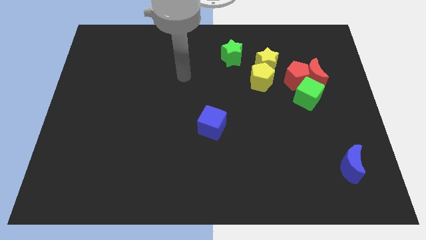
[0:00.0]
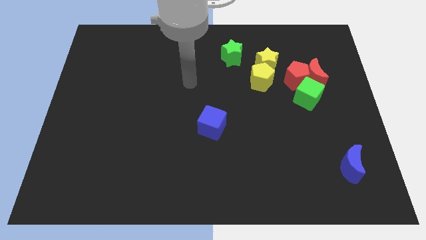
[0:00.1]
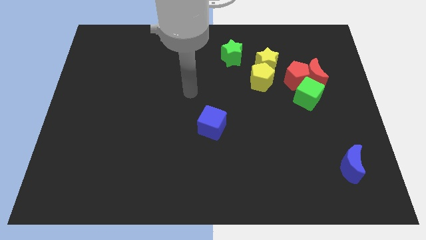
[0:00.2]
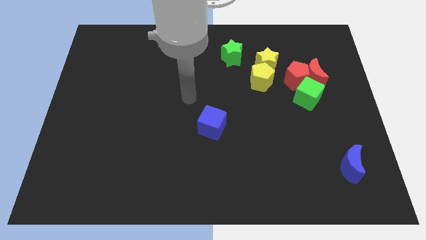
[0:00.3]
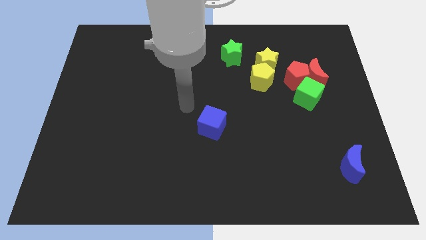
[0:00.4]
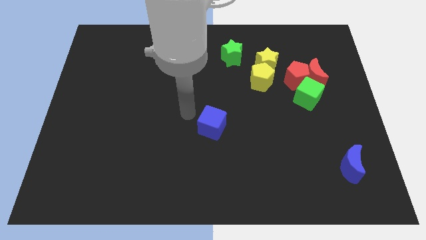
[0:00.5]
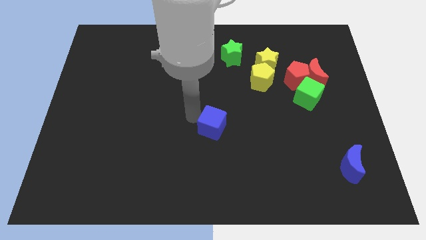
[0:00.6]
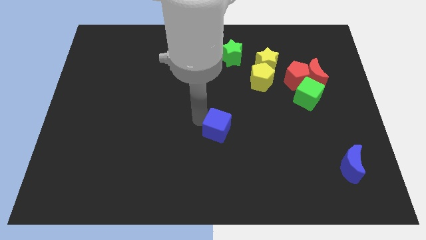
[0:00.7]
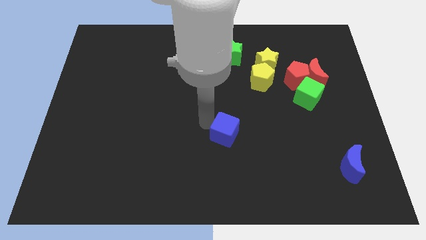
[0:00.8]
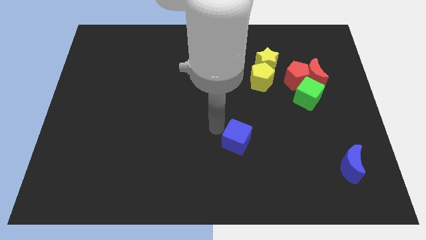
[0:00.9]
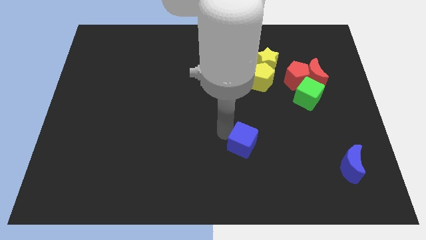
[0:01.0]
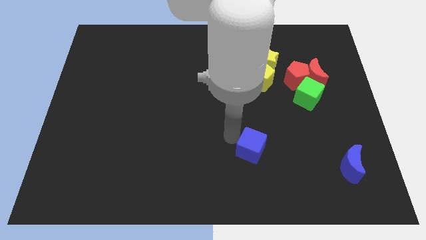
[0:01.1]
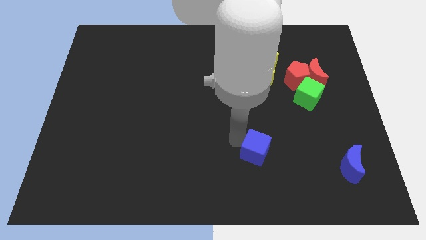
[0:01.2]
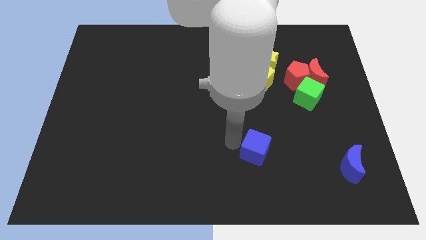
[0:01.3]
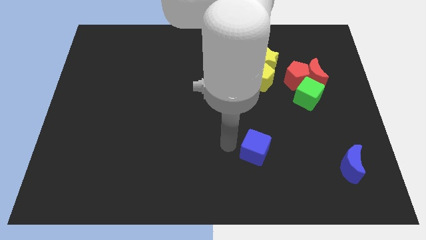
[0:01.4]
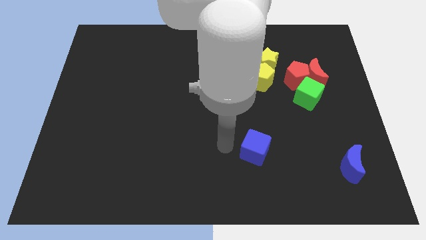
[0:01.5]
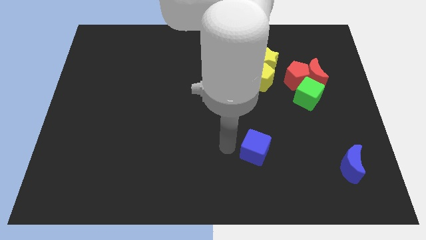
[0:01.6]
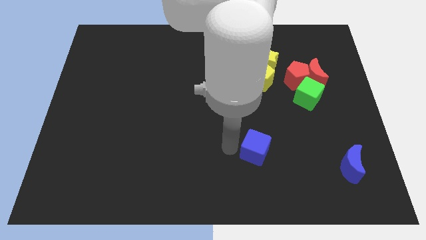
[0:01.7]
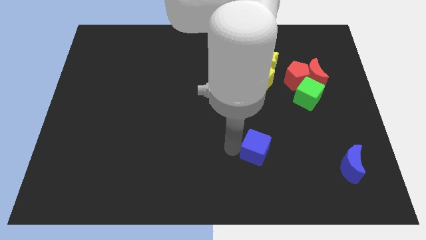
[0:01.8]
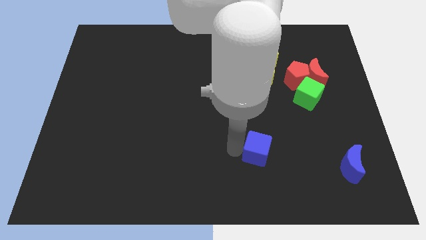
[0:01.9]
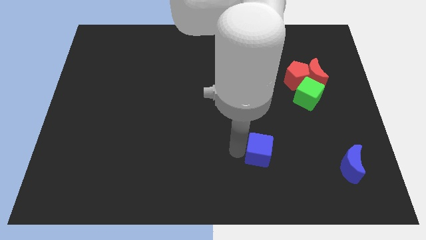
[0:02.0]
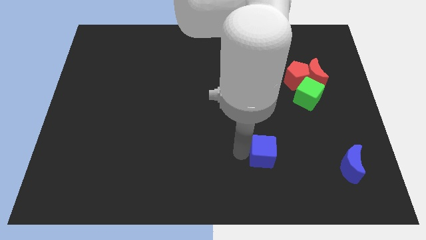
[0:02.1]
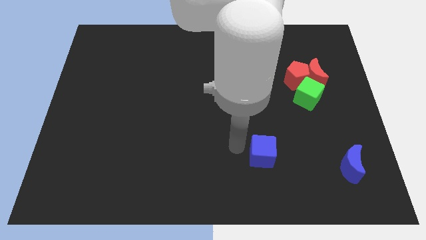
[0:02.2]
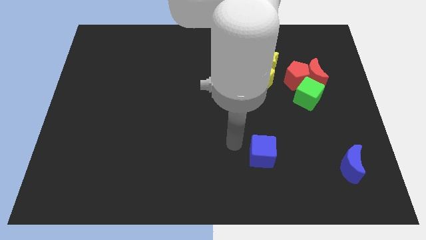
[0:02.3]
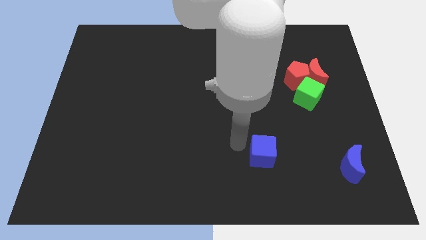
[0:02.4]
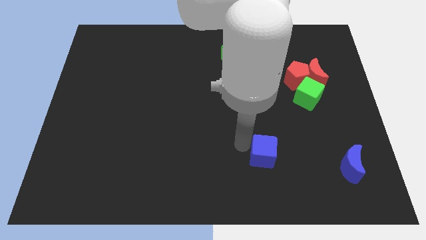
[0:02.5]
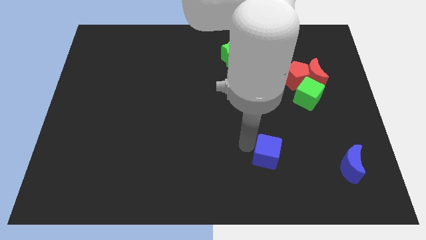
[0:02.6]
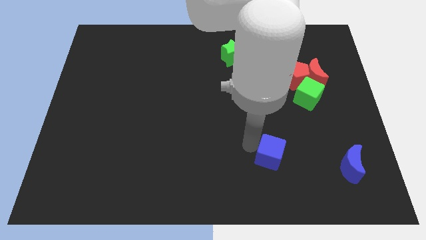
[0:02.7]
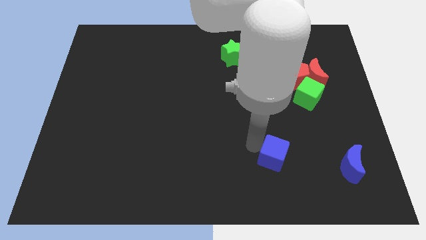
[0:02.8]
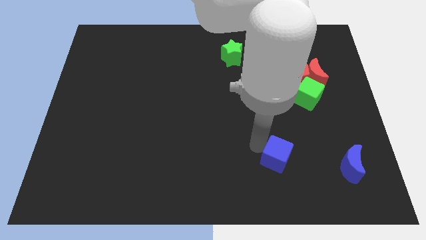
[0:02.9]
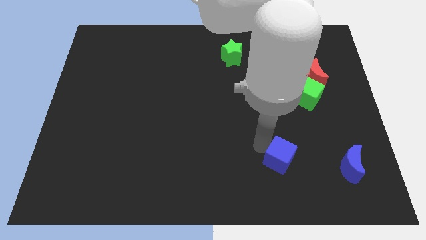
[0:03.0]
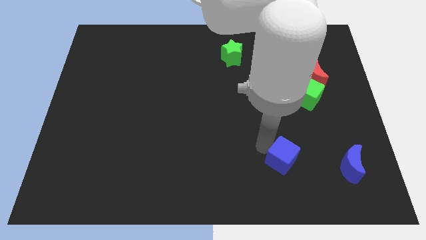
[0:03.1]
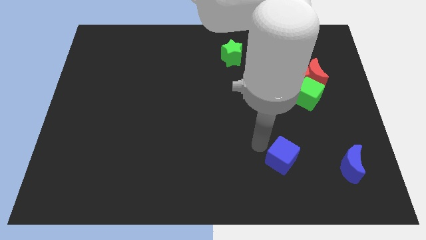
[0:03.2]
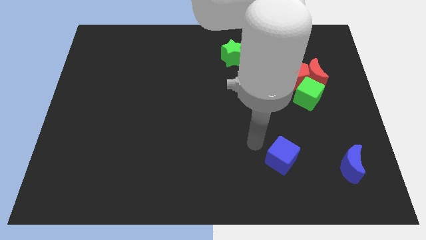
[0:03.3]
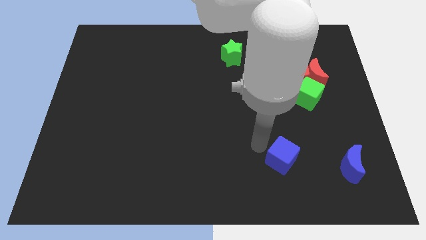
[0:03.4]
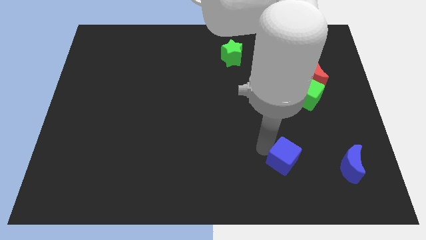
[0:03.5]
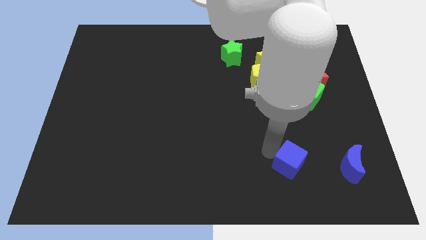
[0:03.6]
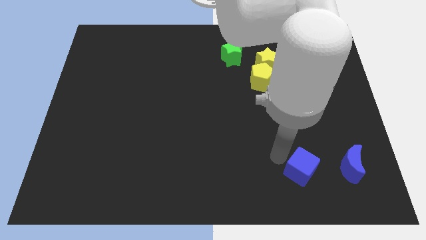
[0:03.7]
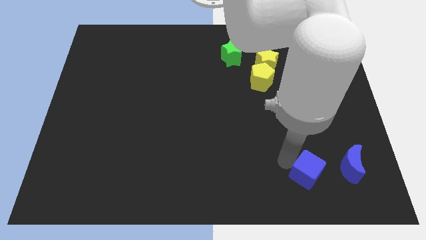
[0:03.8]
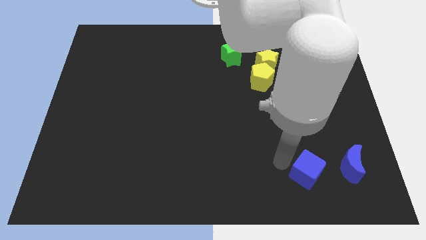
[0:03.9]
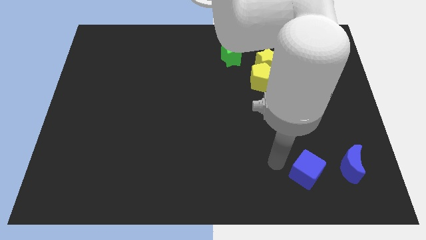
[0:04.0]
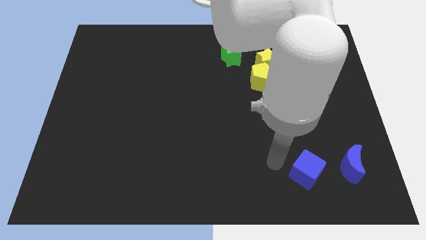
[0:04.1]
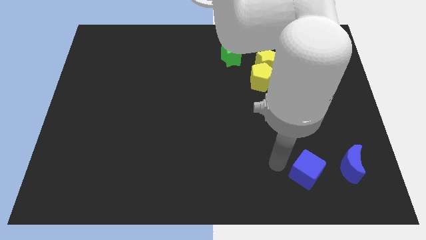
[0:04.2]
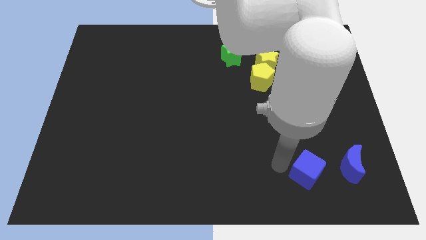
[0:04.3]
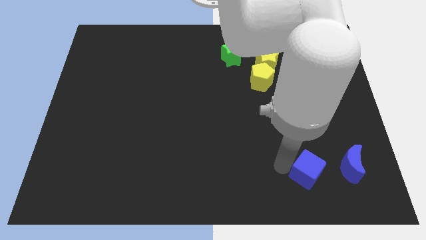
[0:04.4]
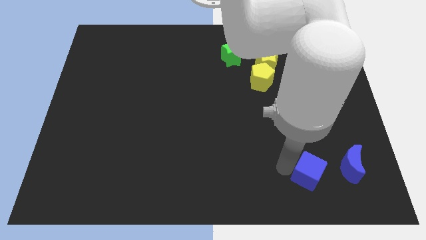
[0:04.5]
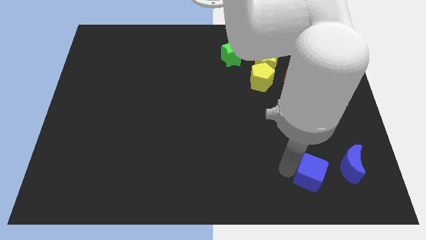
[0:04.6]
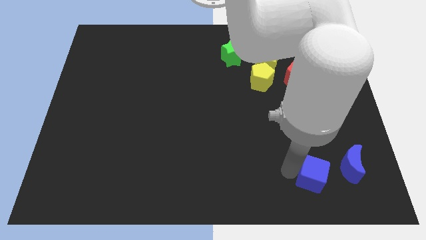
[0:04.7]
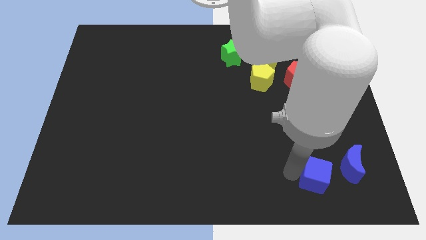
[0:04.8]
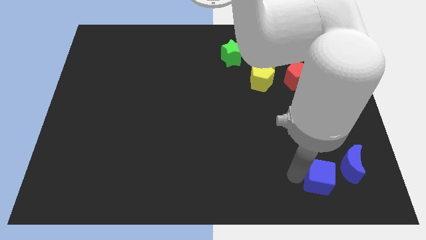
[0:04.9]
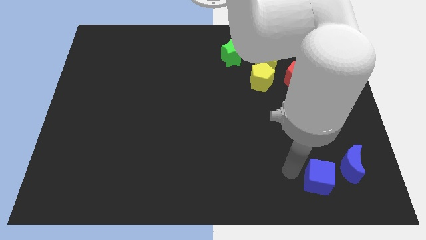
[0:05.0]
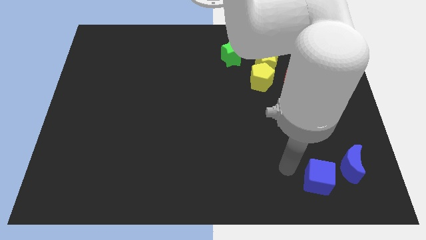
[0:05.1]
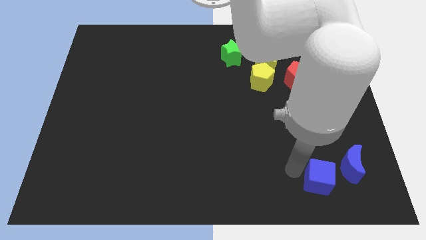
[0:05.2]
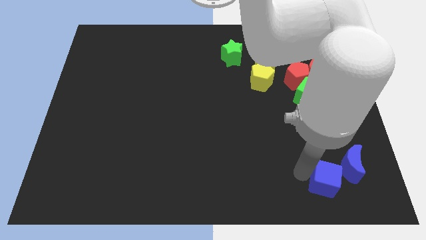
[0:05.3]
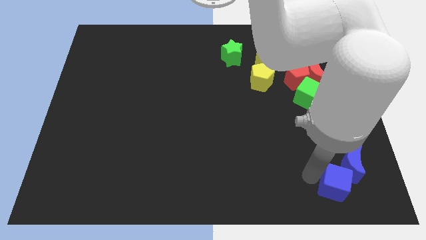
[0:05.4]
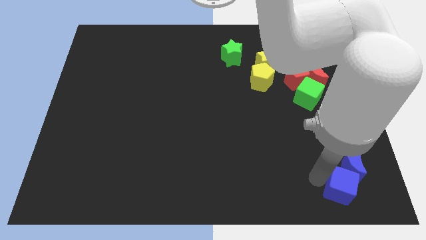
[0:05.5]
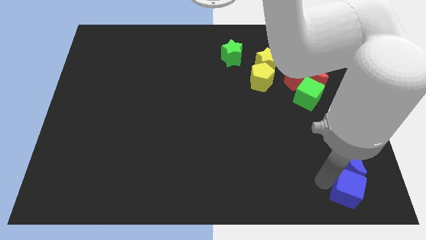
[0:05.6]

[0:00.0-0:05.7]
slide the blue cube to the bottom right of the board
